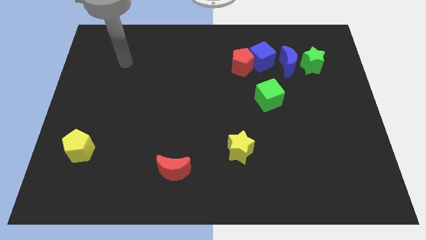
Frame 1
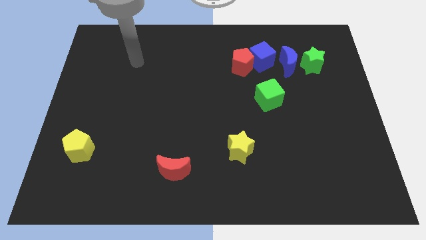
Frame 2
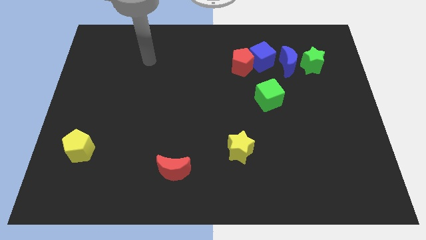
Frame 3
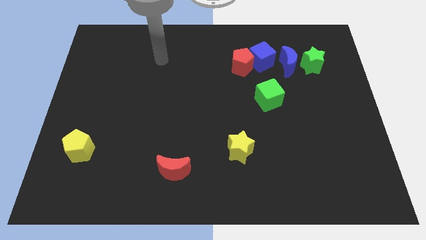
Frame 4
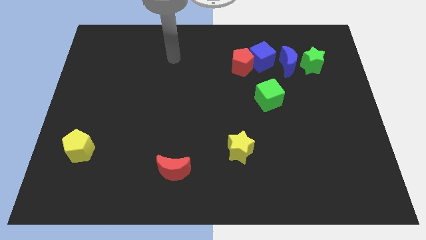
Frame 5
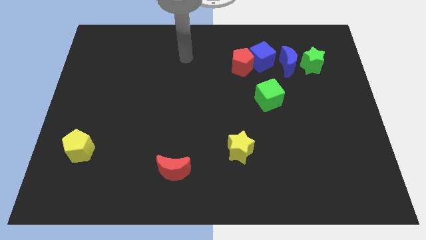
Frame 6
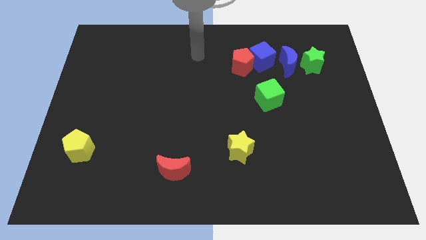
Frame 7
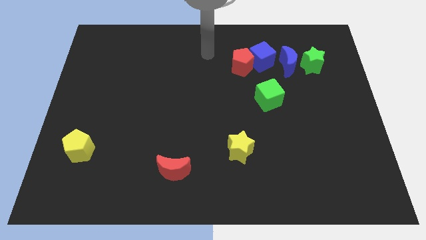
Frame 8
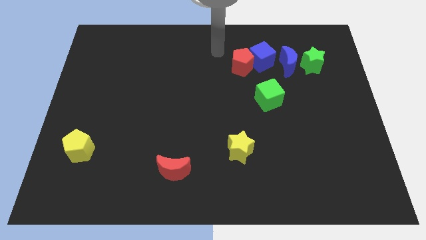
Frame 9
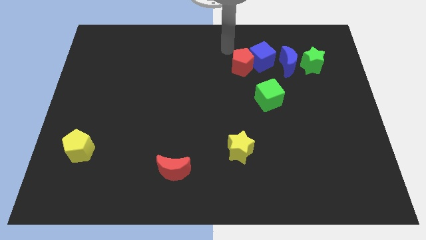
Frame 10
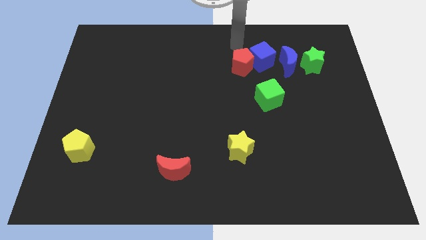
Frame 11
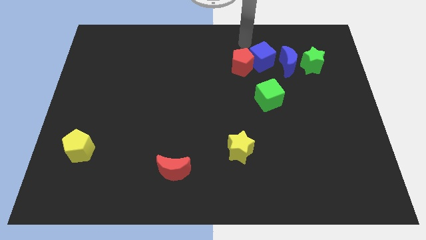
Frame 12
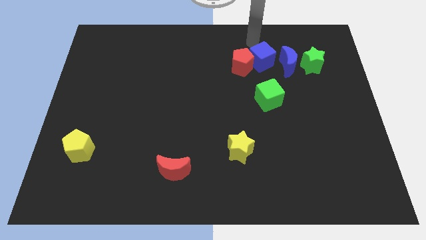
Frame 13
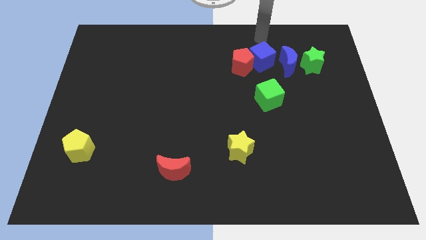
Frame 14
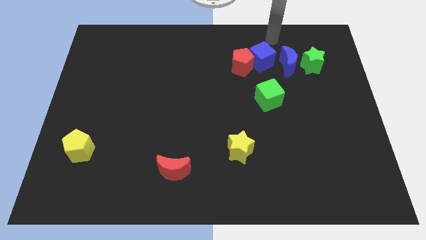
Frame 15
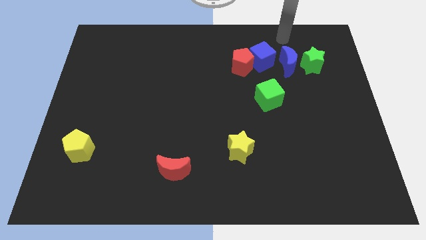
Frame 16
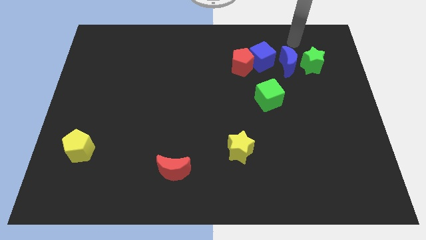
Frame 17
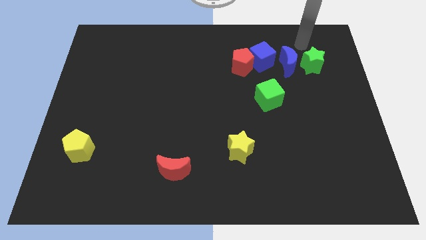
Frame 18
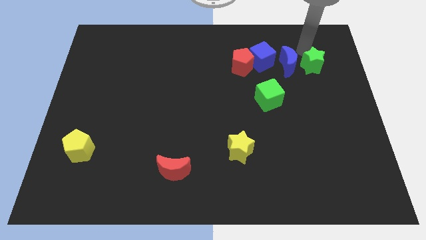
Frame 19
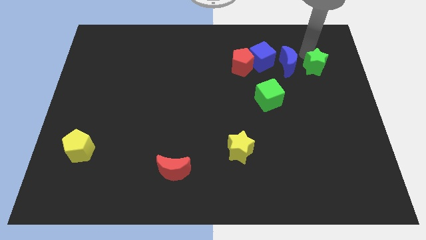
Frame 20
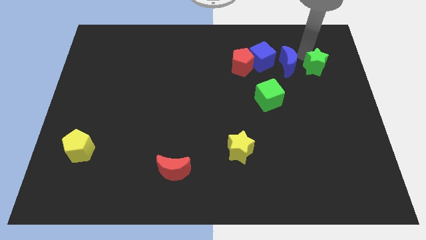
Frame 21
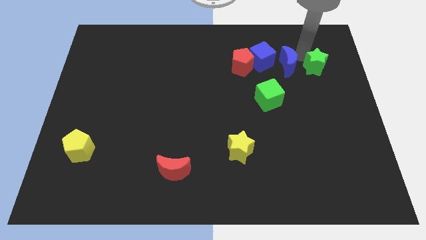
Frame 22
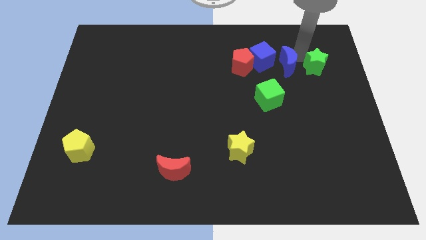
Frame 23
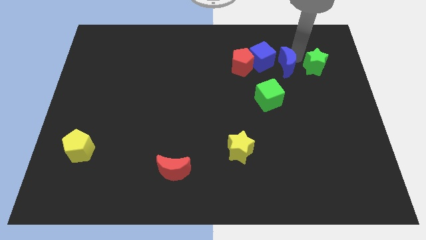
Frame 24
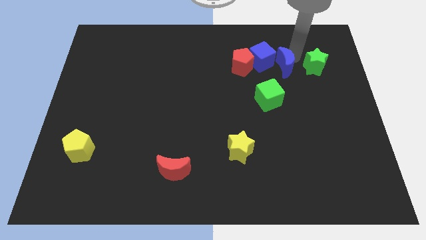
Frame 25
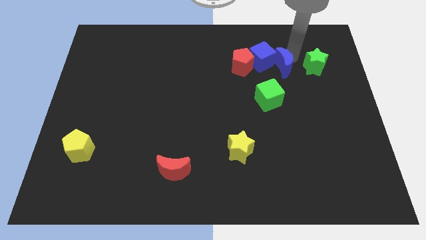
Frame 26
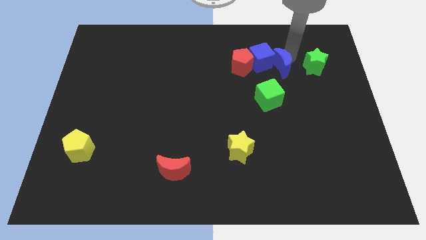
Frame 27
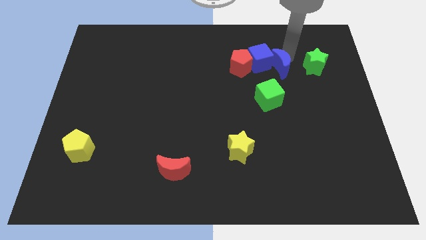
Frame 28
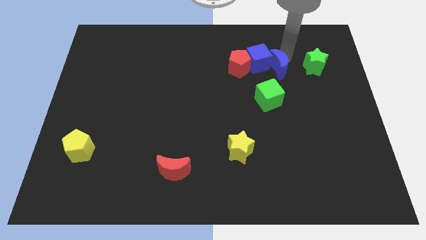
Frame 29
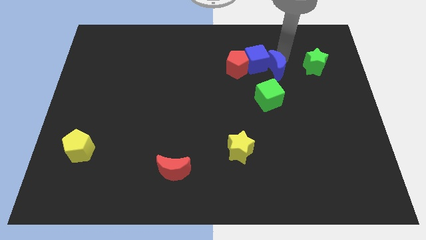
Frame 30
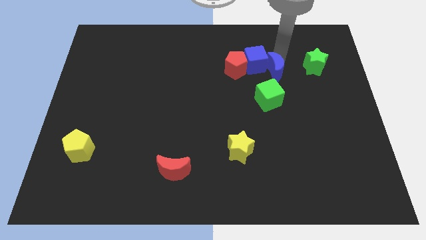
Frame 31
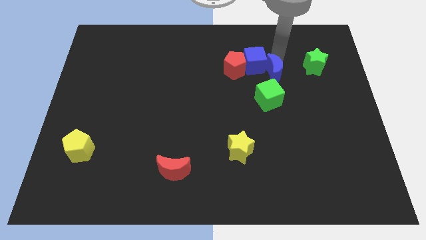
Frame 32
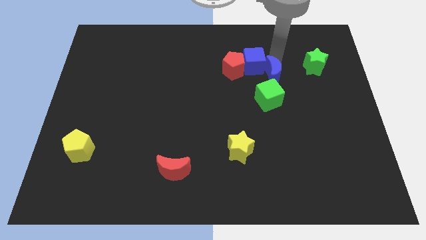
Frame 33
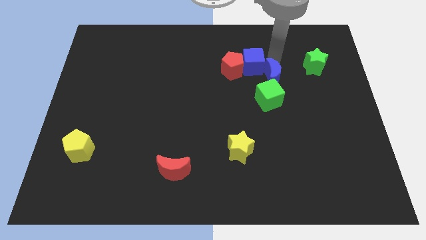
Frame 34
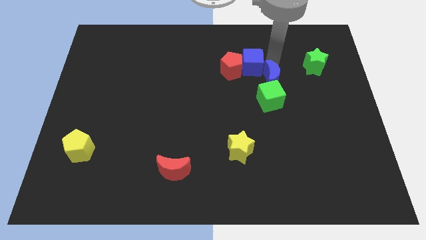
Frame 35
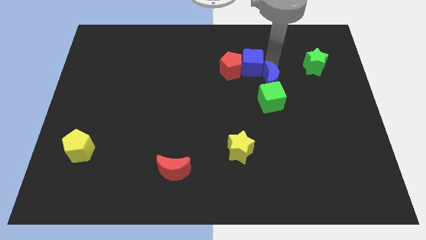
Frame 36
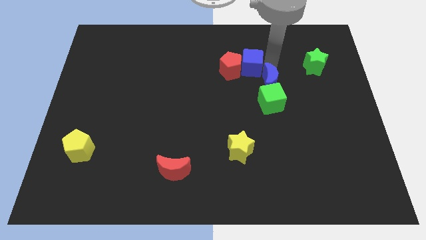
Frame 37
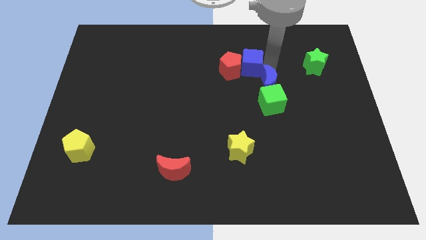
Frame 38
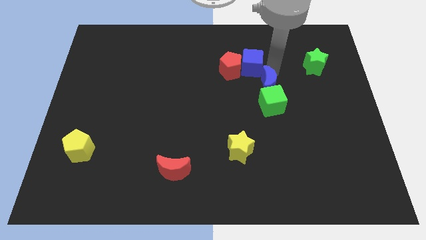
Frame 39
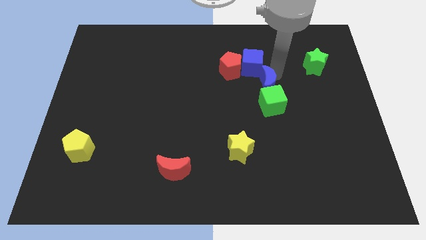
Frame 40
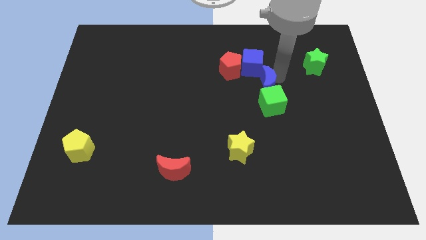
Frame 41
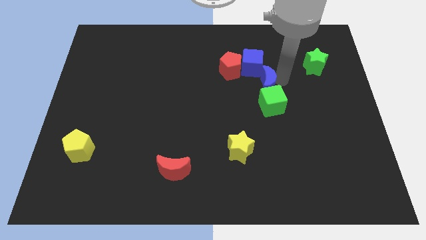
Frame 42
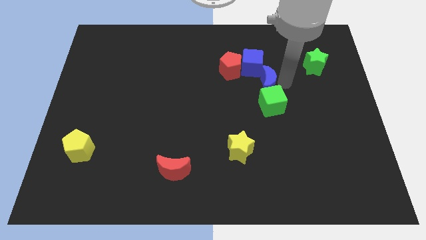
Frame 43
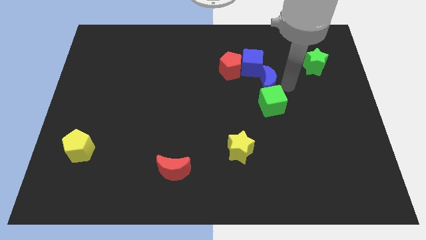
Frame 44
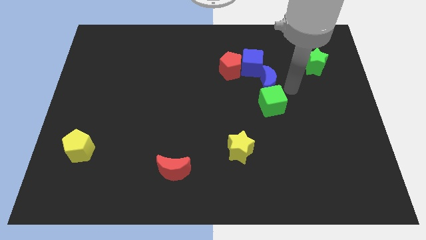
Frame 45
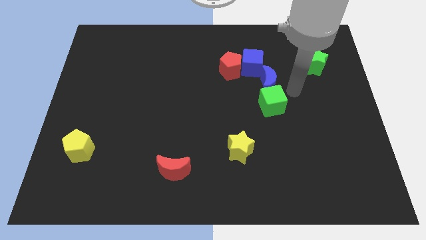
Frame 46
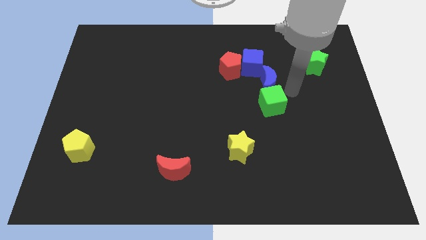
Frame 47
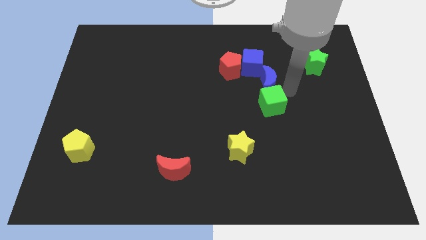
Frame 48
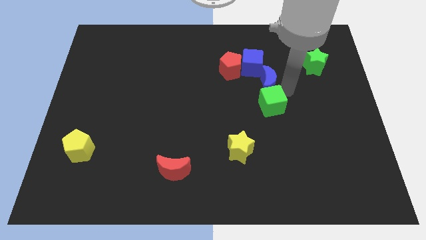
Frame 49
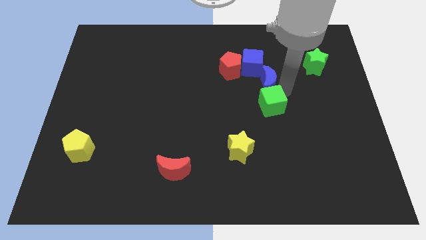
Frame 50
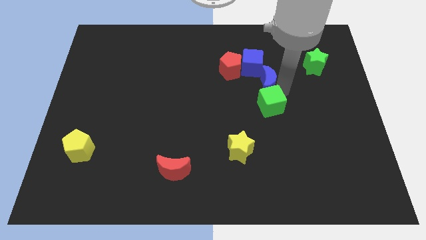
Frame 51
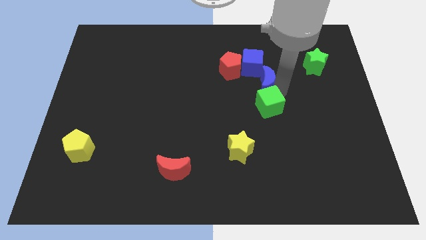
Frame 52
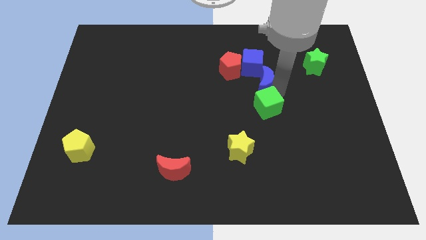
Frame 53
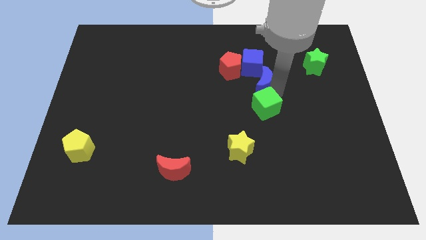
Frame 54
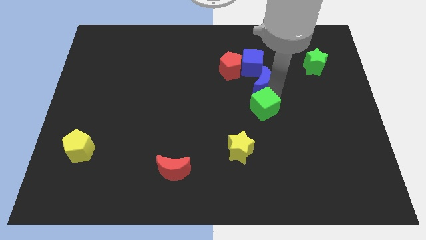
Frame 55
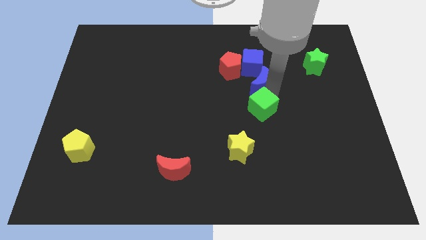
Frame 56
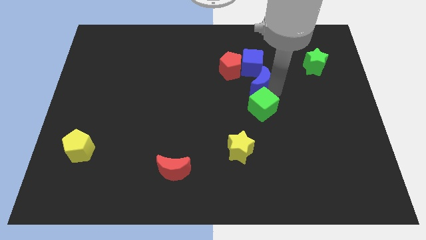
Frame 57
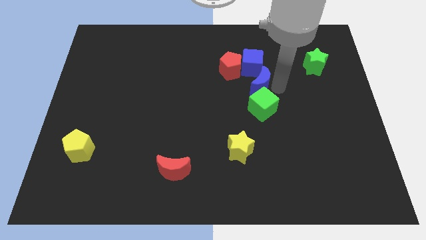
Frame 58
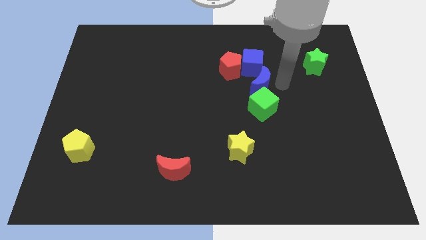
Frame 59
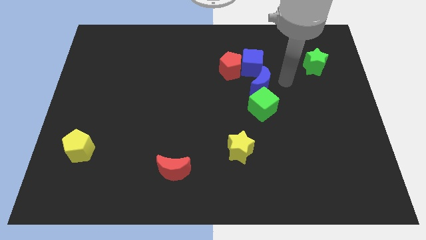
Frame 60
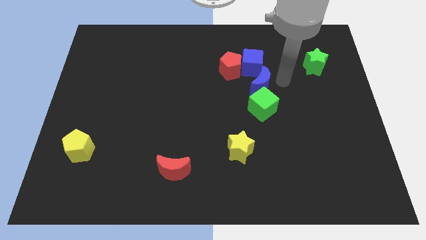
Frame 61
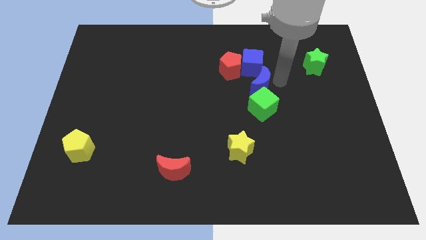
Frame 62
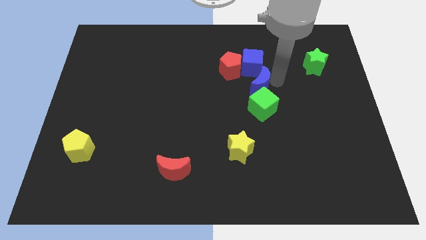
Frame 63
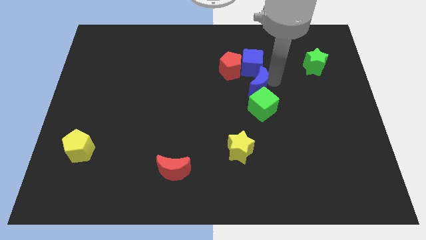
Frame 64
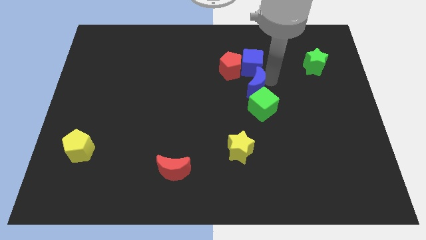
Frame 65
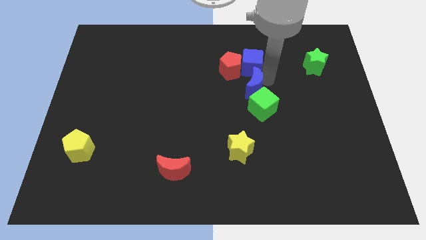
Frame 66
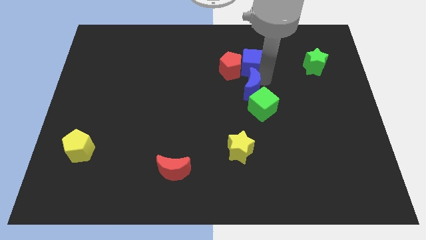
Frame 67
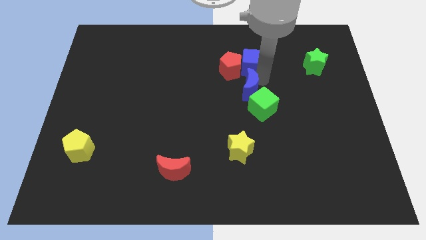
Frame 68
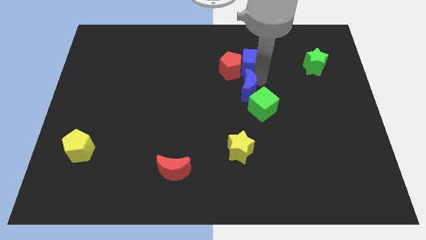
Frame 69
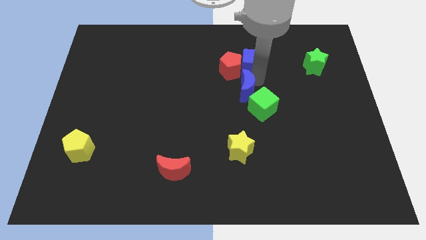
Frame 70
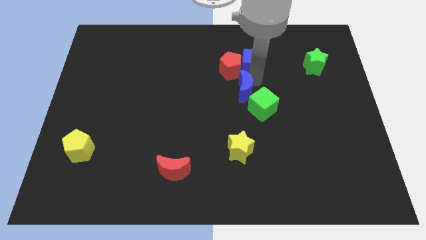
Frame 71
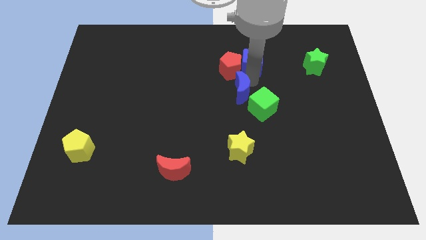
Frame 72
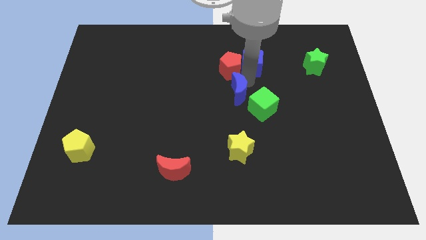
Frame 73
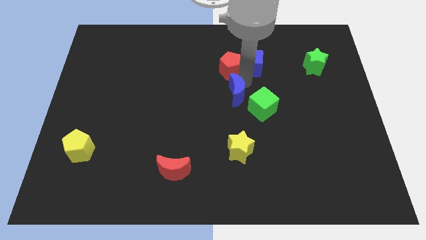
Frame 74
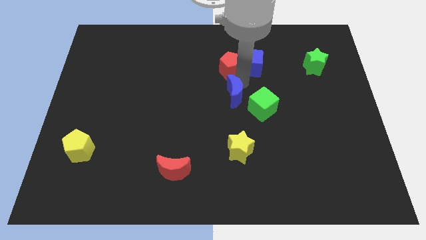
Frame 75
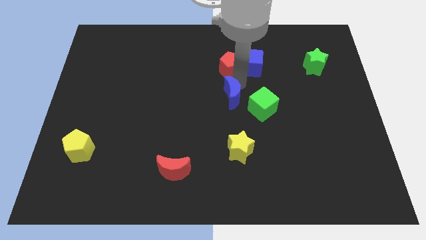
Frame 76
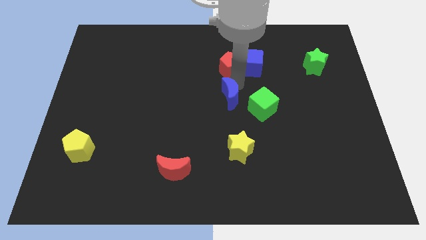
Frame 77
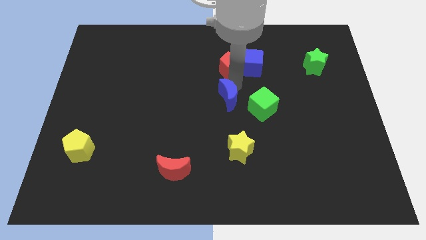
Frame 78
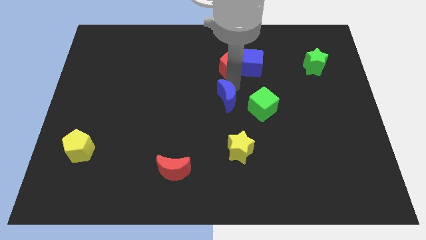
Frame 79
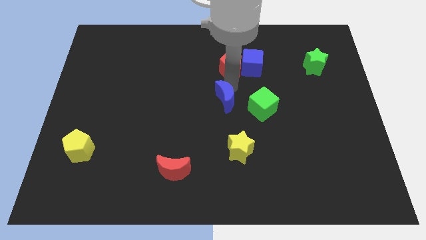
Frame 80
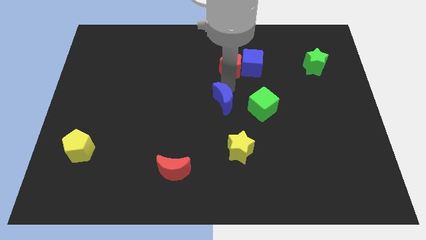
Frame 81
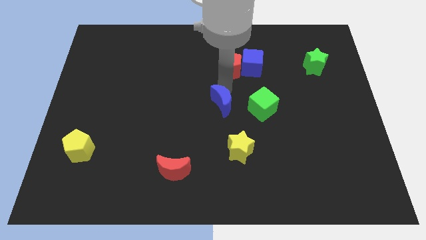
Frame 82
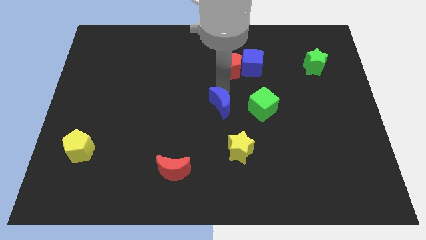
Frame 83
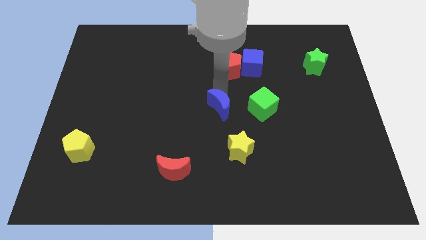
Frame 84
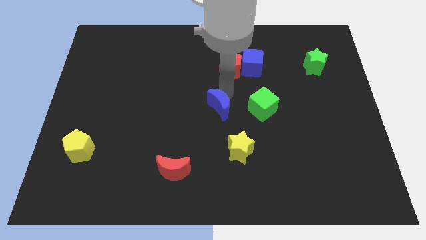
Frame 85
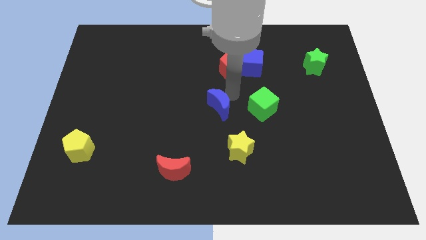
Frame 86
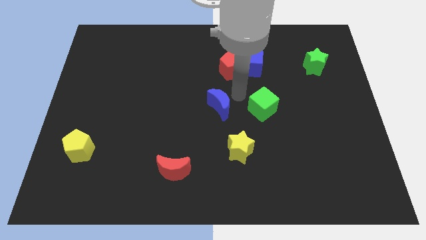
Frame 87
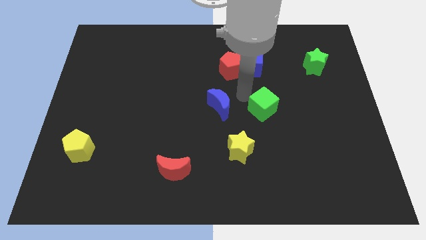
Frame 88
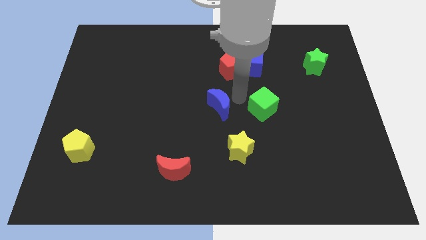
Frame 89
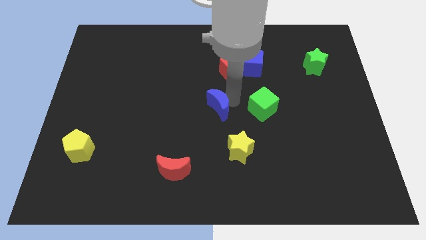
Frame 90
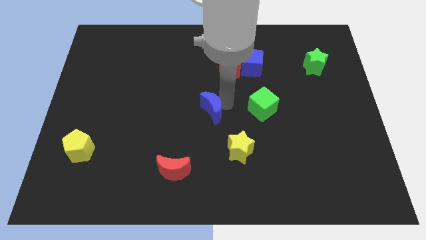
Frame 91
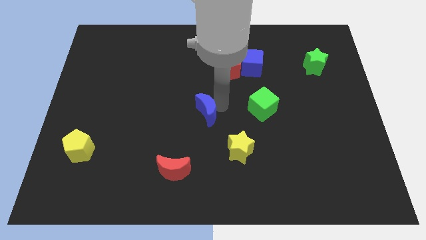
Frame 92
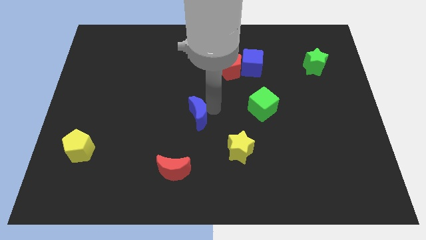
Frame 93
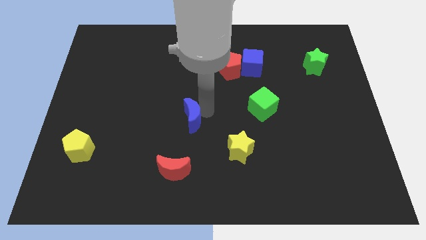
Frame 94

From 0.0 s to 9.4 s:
put the blue moon to the top of the red moon
